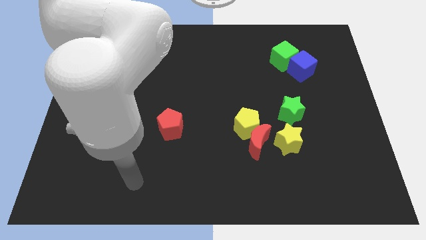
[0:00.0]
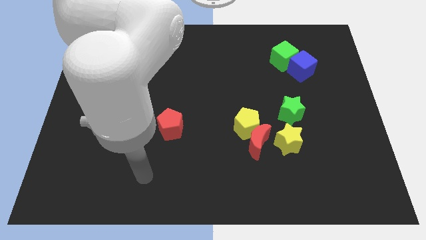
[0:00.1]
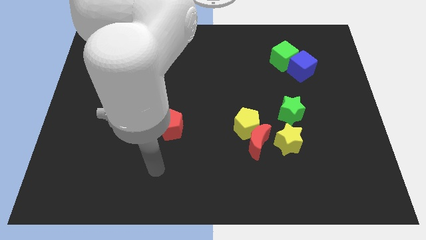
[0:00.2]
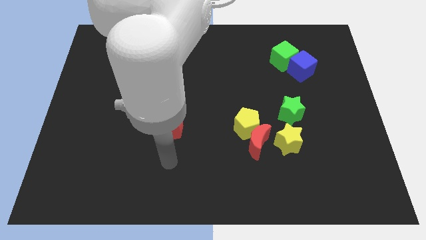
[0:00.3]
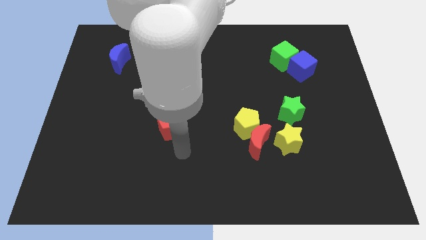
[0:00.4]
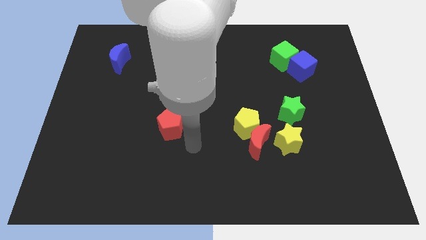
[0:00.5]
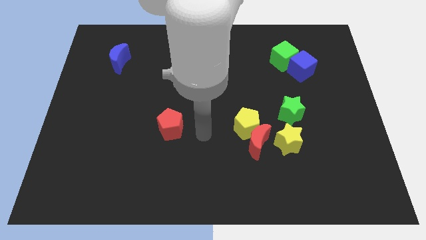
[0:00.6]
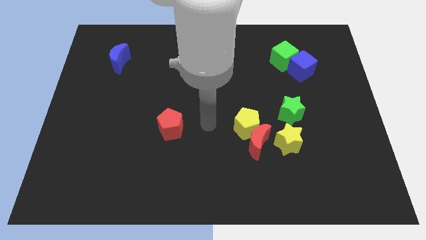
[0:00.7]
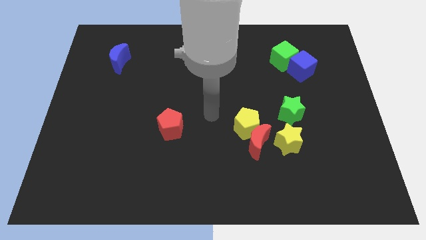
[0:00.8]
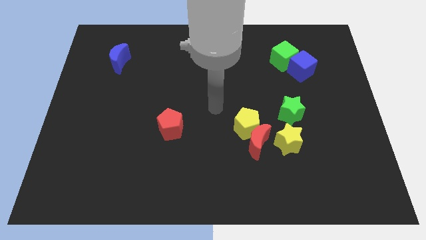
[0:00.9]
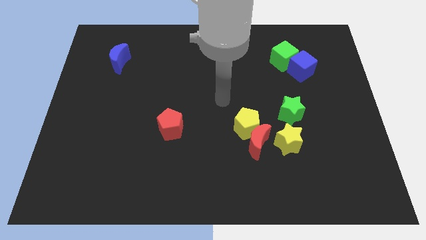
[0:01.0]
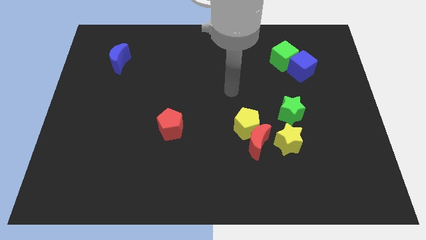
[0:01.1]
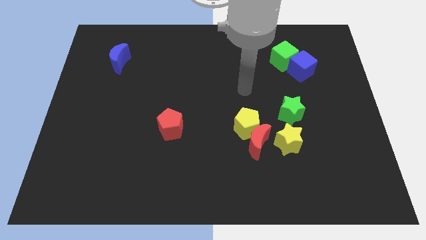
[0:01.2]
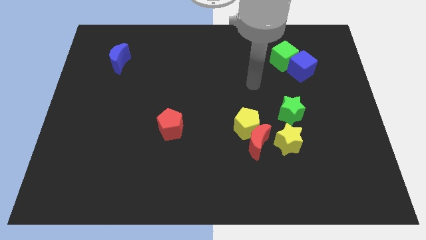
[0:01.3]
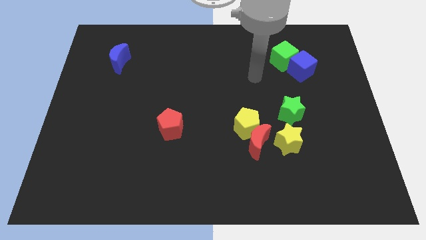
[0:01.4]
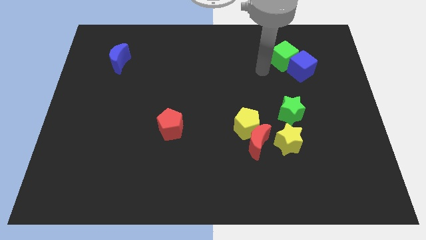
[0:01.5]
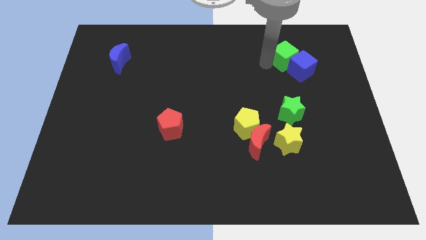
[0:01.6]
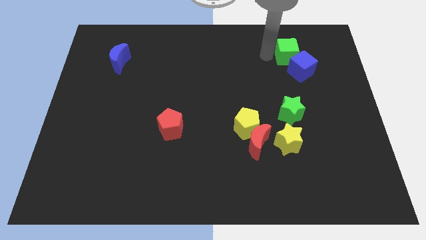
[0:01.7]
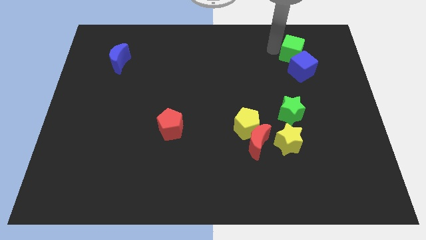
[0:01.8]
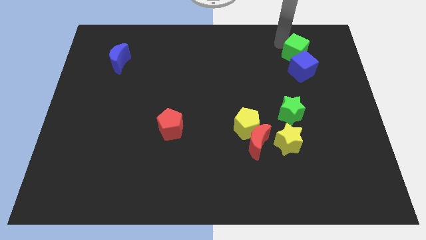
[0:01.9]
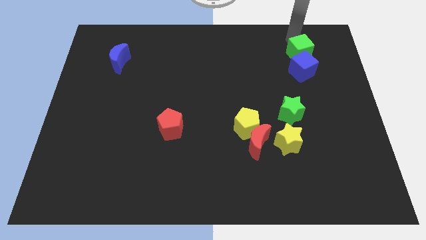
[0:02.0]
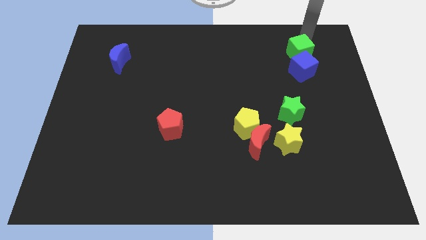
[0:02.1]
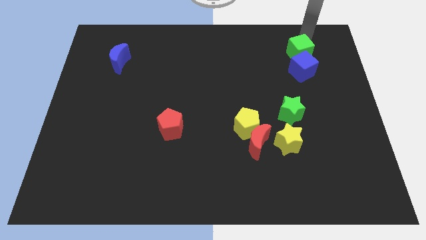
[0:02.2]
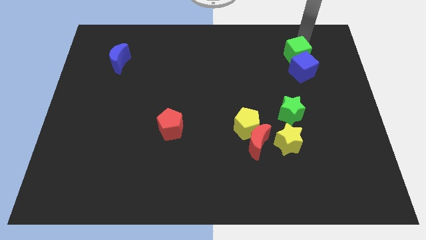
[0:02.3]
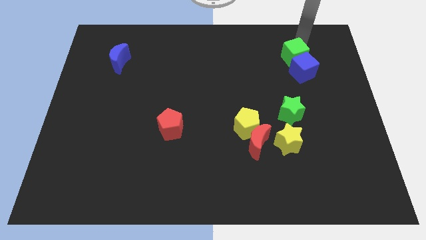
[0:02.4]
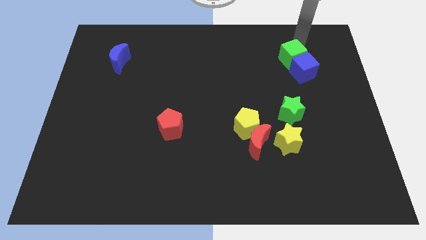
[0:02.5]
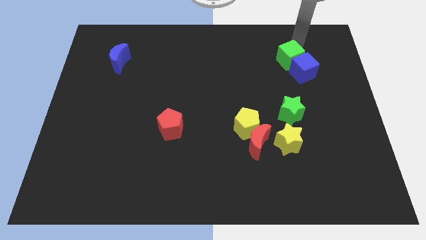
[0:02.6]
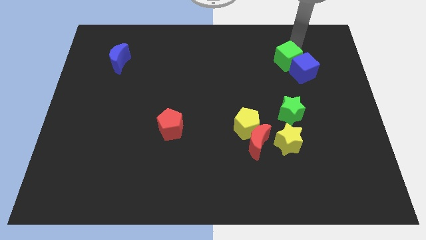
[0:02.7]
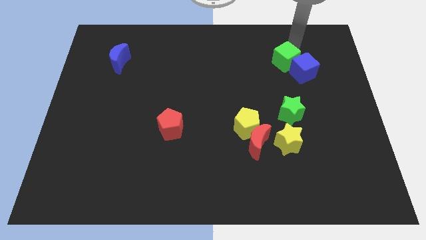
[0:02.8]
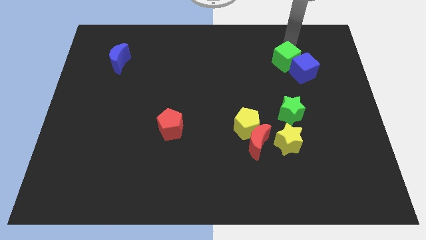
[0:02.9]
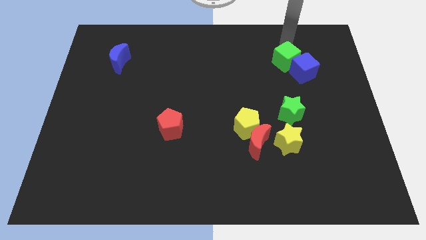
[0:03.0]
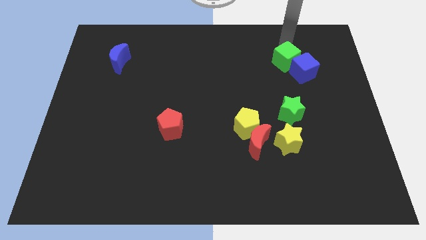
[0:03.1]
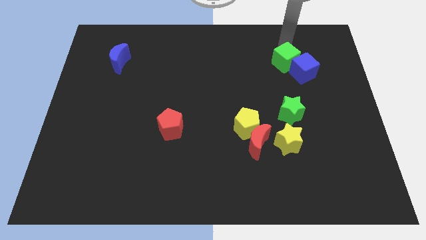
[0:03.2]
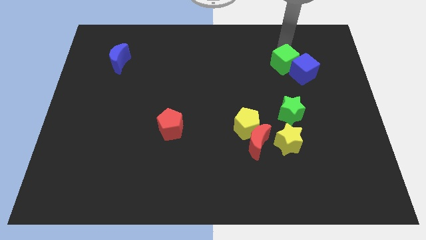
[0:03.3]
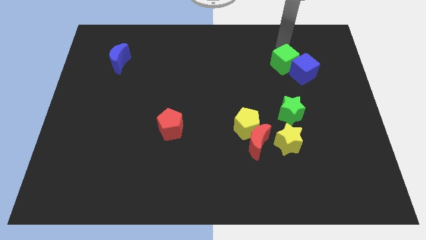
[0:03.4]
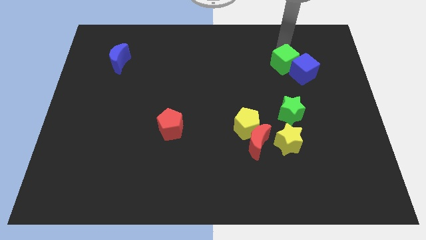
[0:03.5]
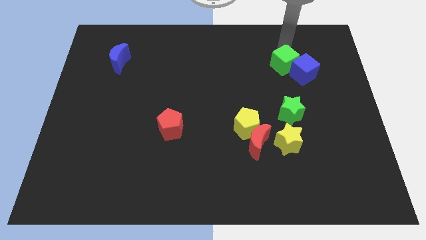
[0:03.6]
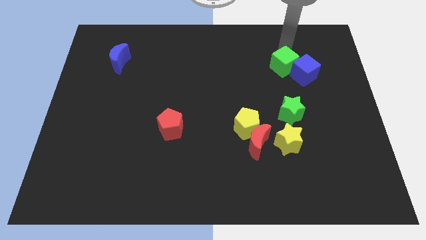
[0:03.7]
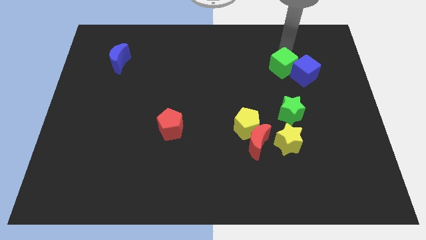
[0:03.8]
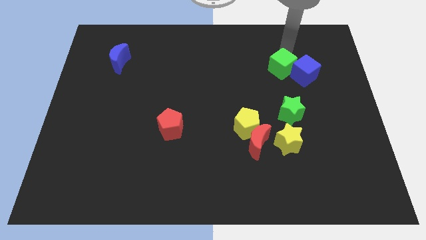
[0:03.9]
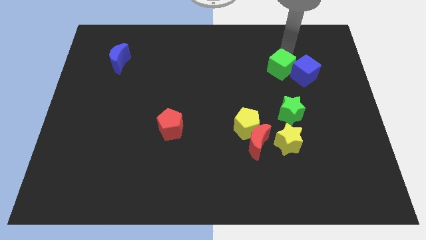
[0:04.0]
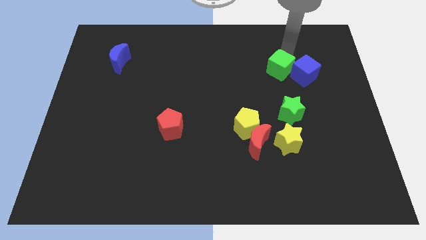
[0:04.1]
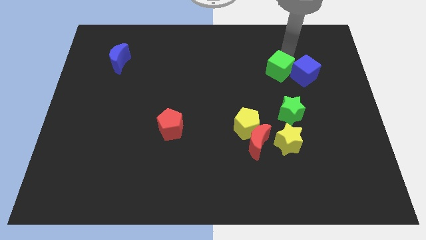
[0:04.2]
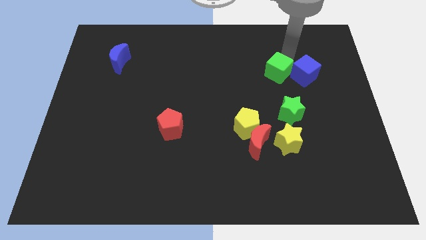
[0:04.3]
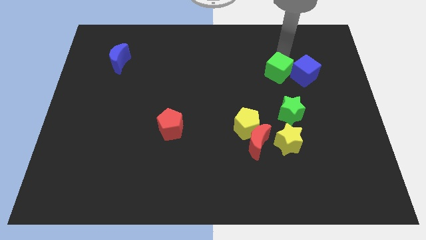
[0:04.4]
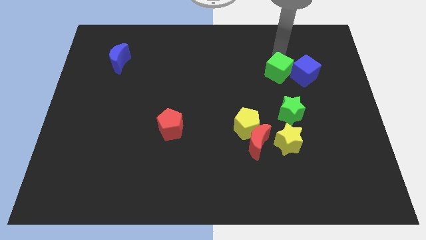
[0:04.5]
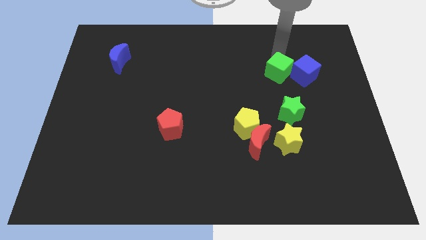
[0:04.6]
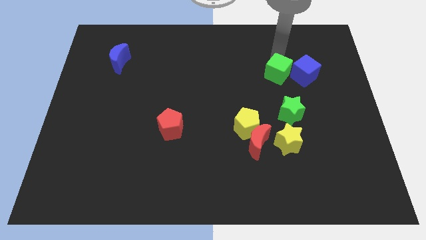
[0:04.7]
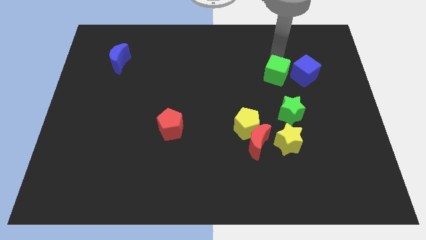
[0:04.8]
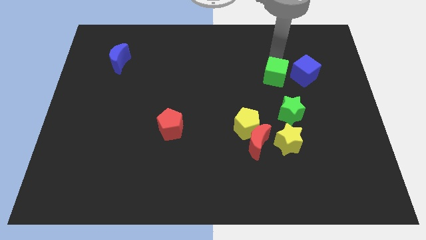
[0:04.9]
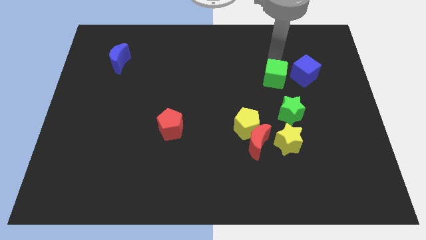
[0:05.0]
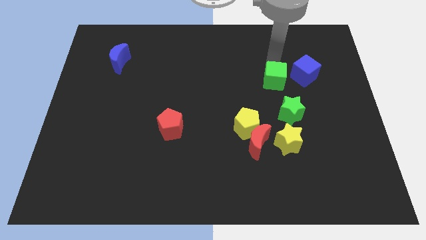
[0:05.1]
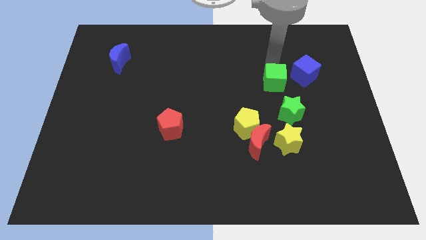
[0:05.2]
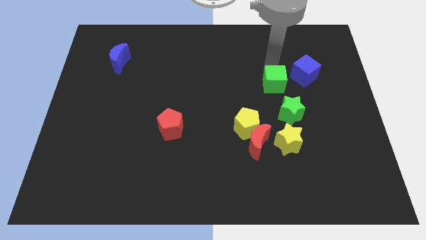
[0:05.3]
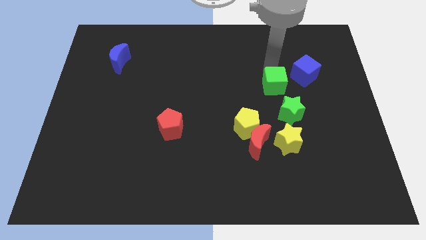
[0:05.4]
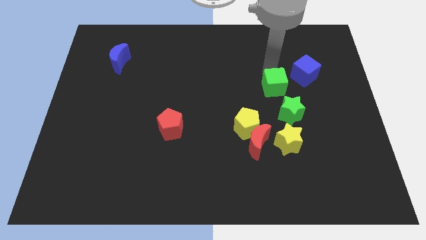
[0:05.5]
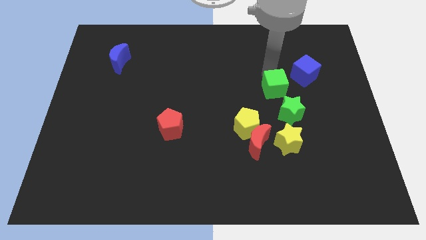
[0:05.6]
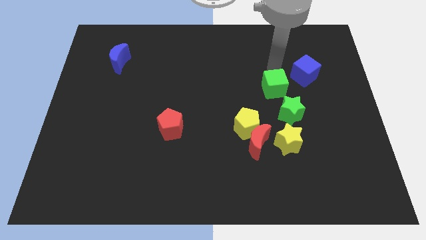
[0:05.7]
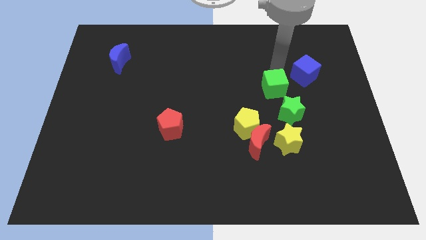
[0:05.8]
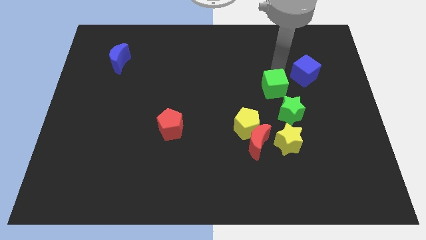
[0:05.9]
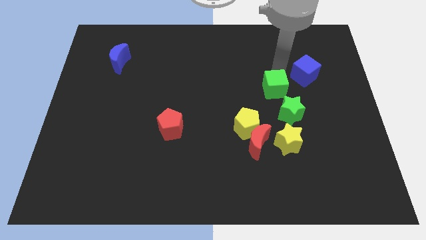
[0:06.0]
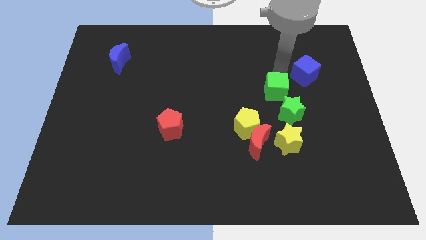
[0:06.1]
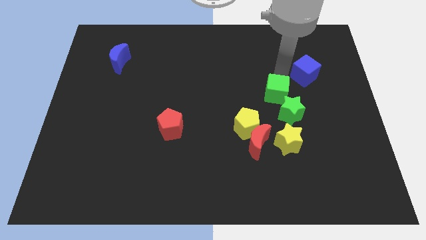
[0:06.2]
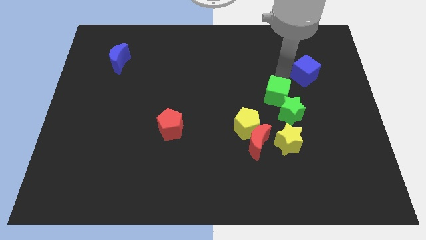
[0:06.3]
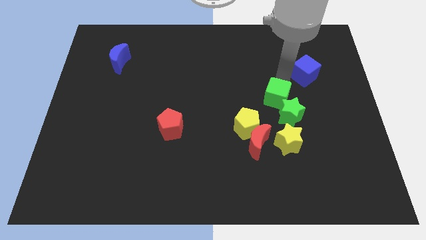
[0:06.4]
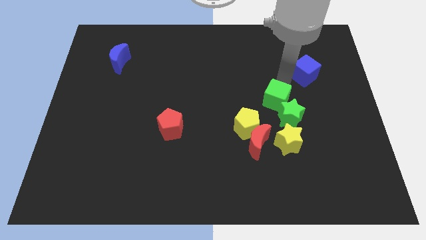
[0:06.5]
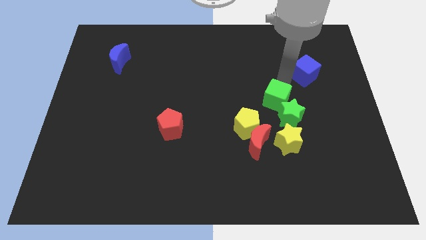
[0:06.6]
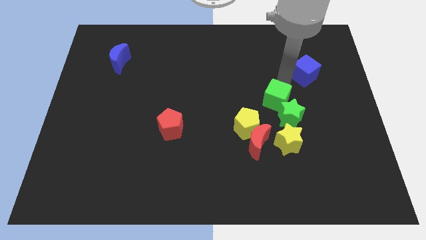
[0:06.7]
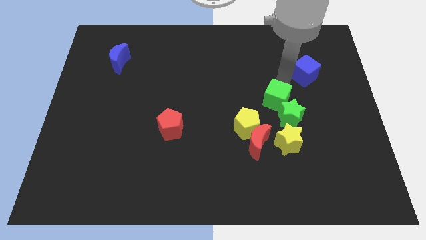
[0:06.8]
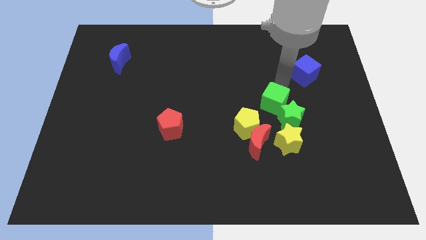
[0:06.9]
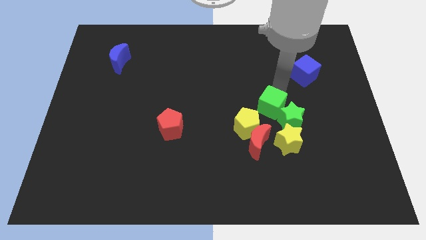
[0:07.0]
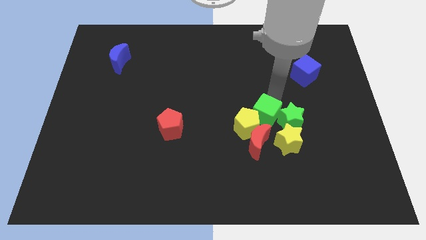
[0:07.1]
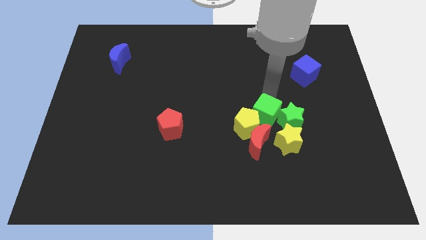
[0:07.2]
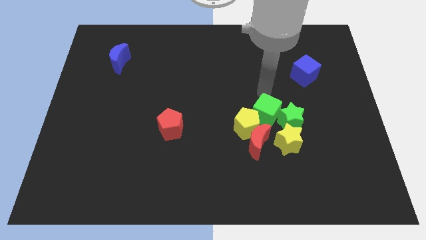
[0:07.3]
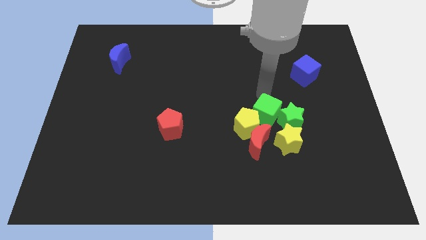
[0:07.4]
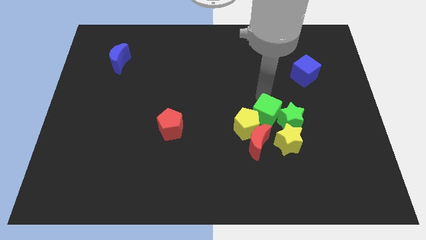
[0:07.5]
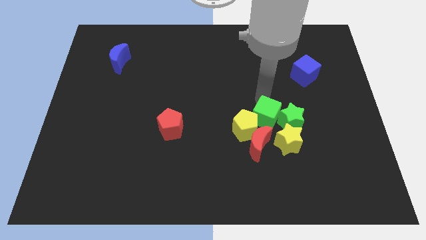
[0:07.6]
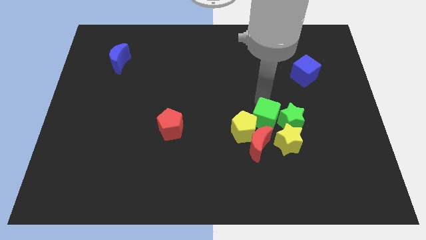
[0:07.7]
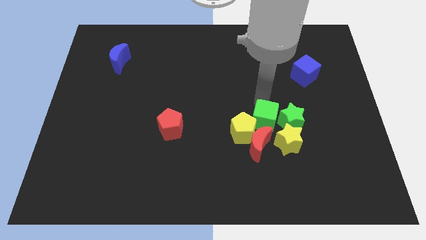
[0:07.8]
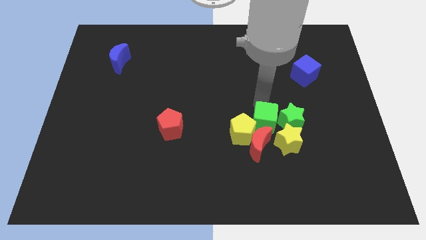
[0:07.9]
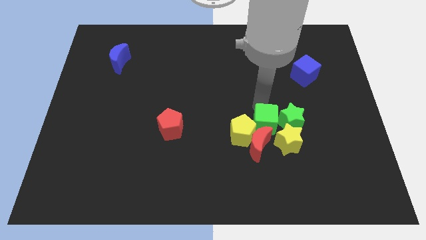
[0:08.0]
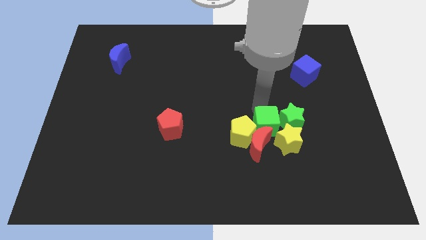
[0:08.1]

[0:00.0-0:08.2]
push the green cube towards the red moon
